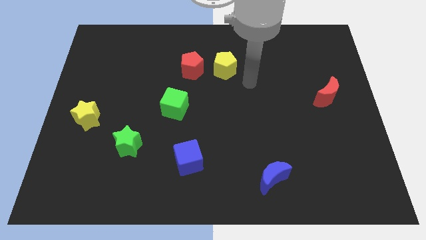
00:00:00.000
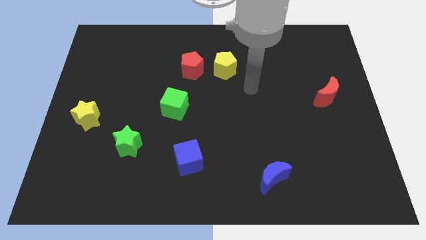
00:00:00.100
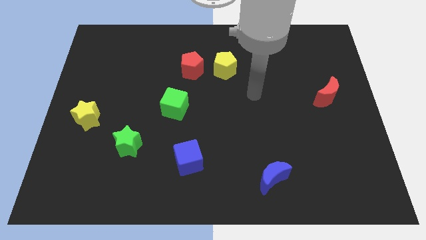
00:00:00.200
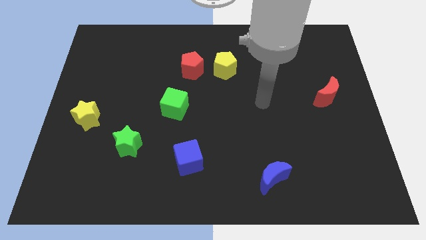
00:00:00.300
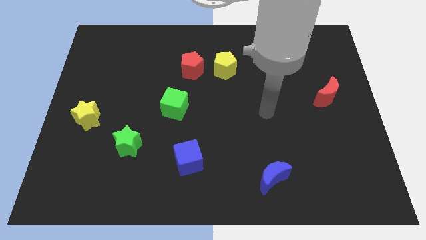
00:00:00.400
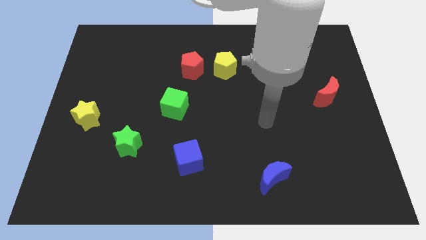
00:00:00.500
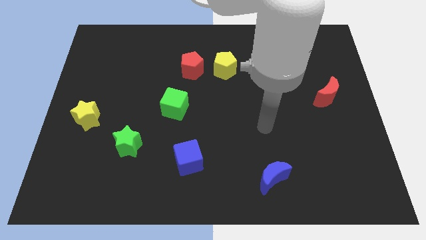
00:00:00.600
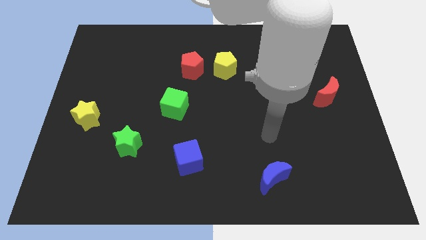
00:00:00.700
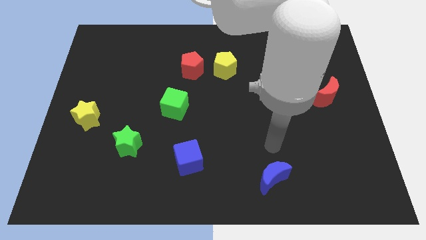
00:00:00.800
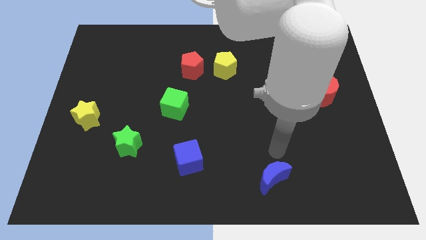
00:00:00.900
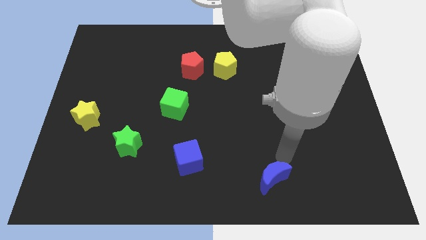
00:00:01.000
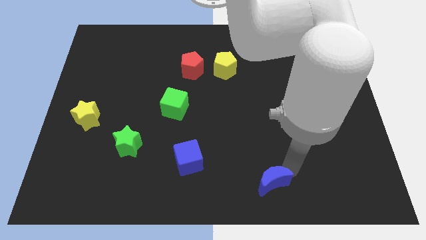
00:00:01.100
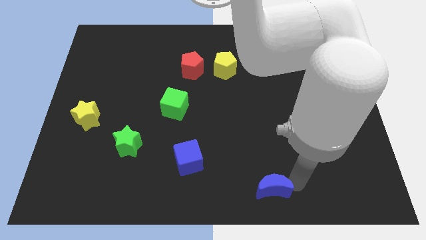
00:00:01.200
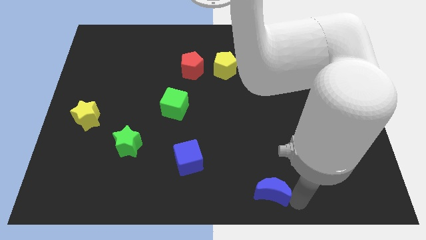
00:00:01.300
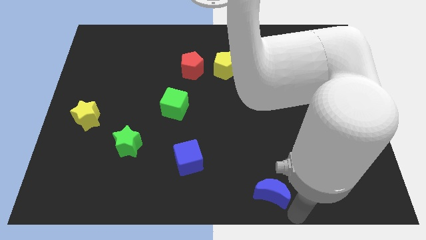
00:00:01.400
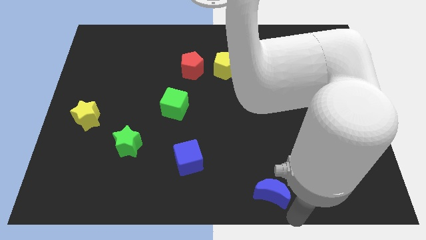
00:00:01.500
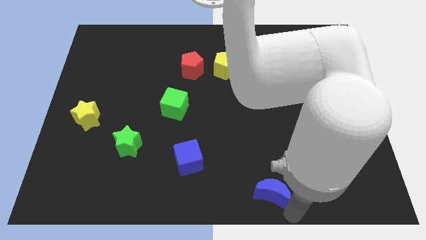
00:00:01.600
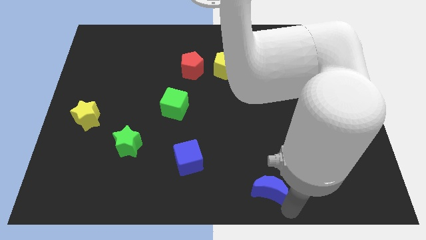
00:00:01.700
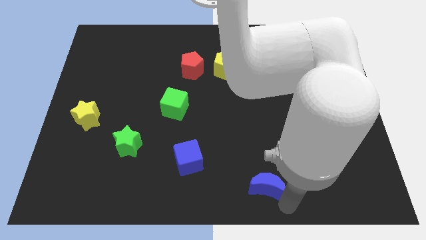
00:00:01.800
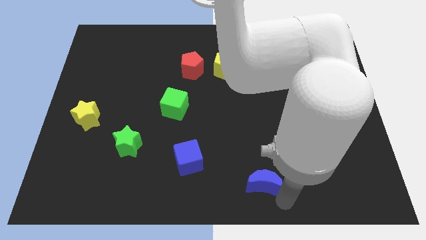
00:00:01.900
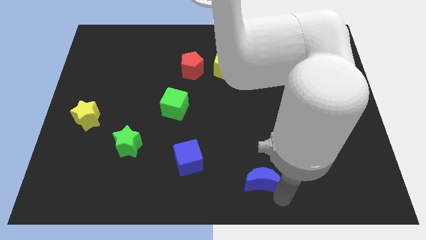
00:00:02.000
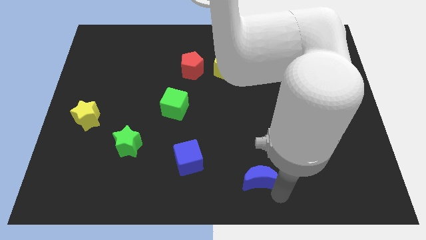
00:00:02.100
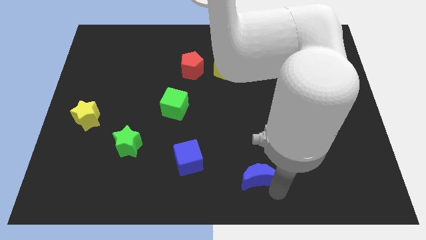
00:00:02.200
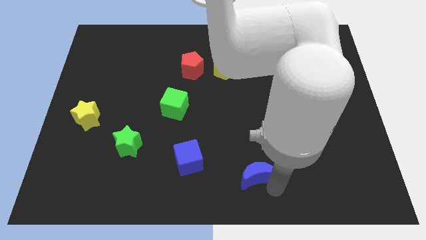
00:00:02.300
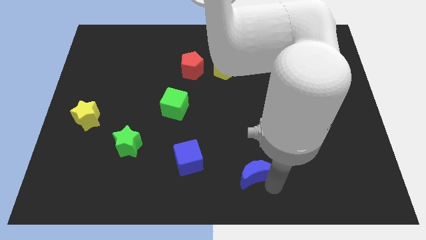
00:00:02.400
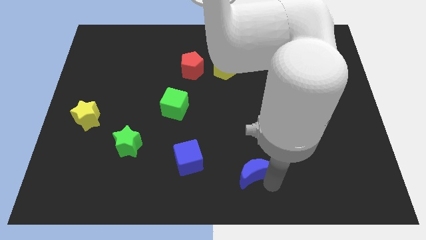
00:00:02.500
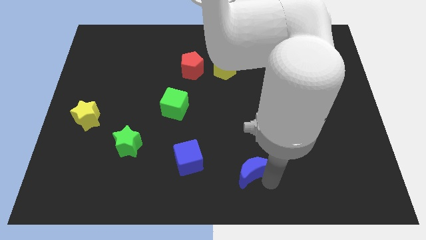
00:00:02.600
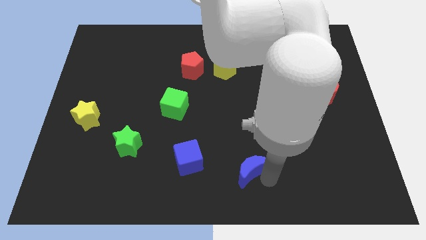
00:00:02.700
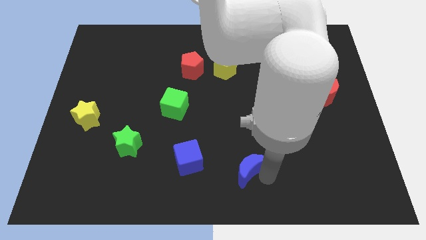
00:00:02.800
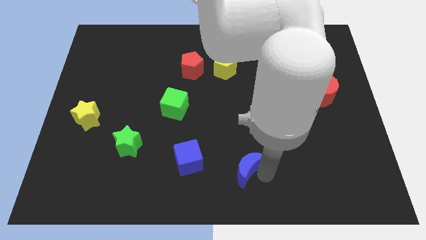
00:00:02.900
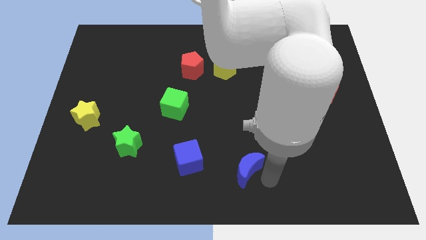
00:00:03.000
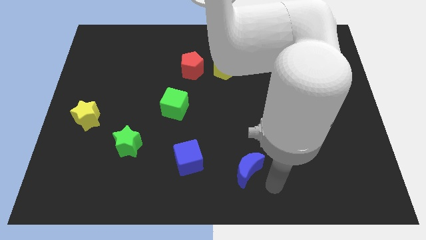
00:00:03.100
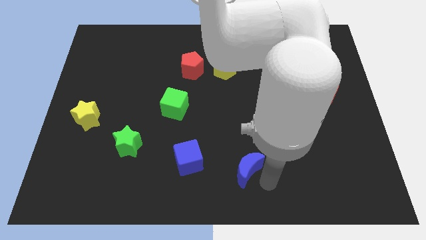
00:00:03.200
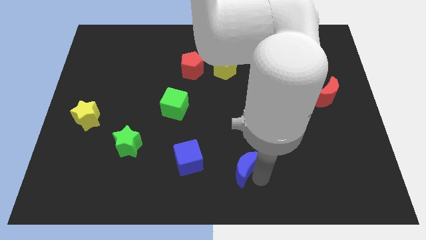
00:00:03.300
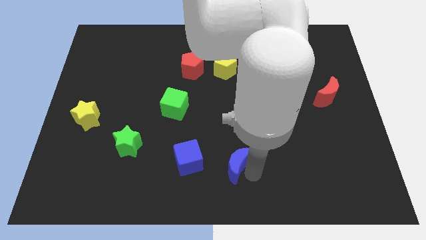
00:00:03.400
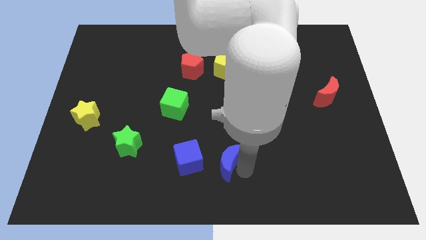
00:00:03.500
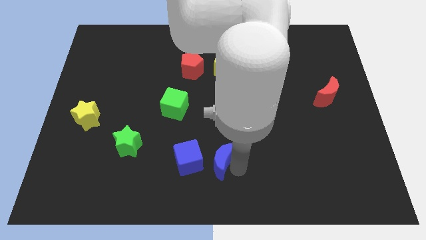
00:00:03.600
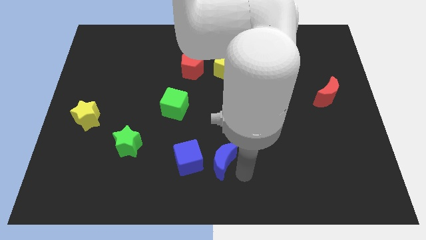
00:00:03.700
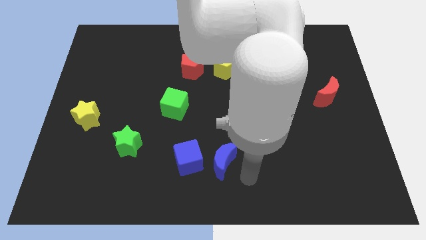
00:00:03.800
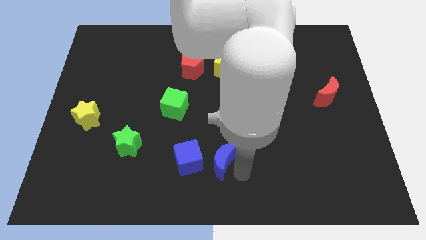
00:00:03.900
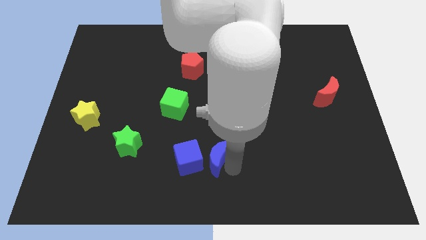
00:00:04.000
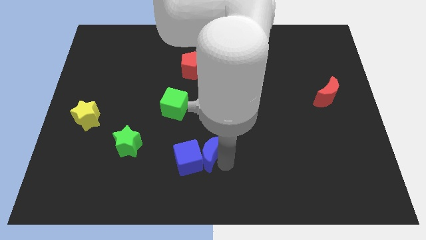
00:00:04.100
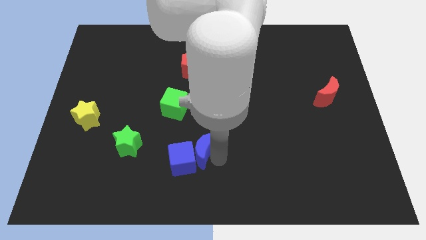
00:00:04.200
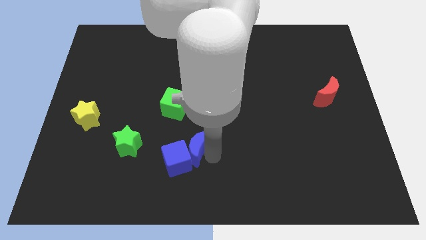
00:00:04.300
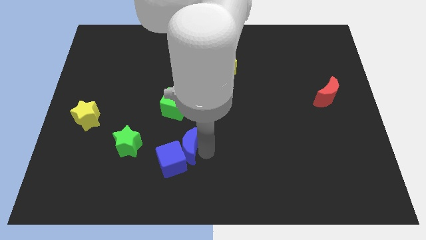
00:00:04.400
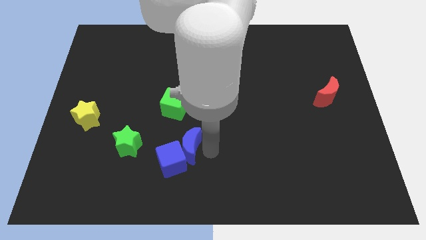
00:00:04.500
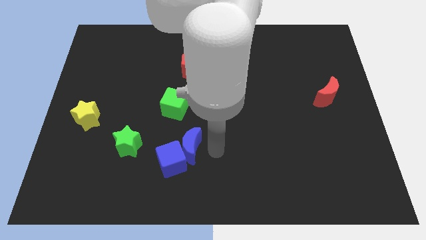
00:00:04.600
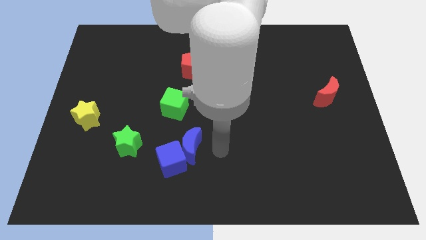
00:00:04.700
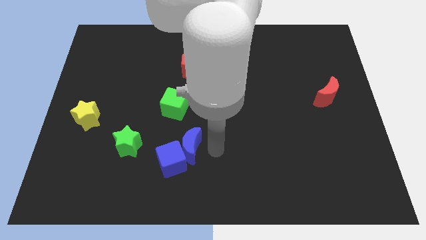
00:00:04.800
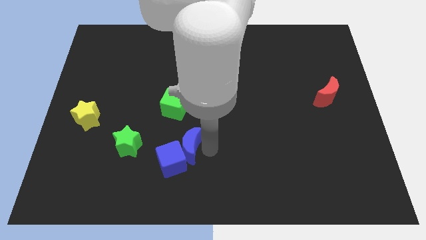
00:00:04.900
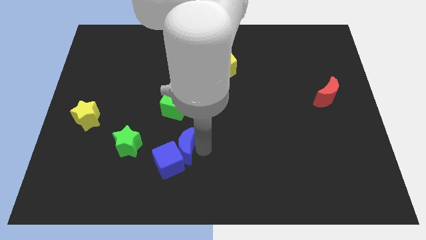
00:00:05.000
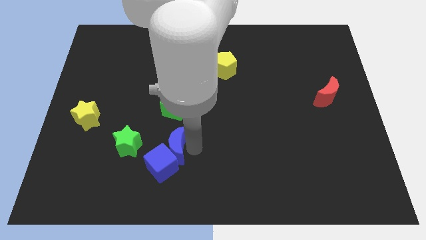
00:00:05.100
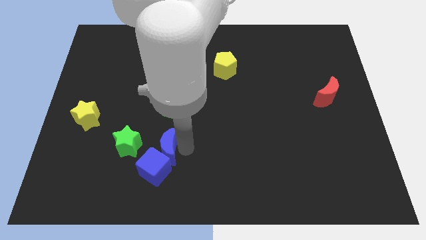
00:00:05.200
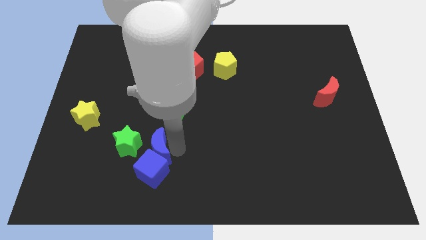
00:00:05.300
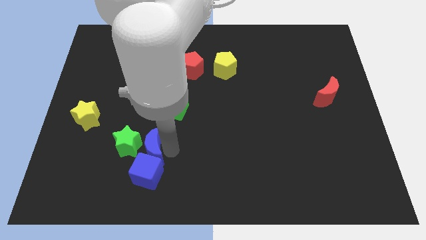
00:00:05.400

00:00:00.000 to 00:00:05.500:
move the blue moon close to the green star

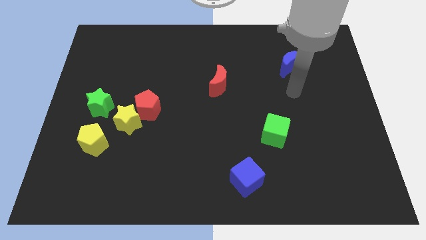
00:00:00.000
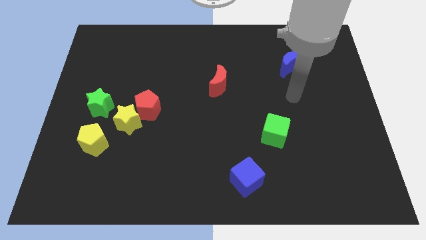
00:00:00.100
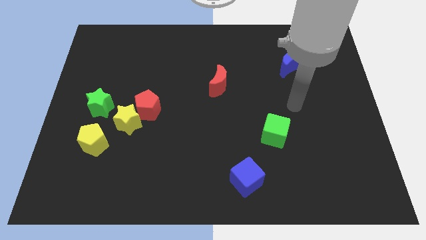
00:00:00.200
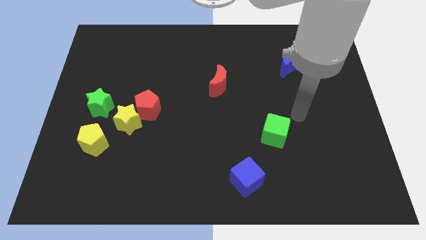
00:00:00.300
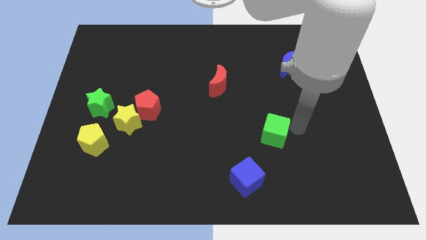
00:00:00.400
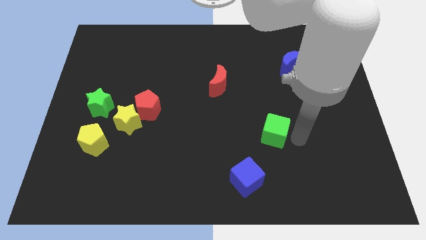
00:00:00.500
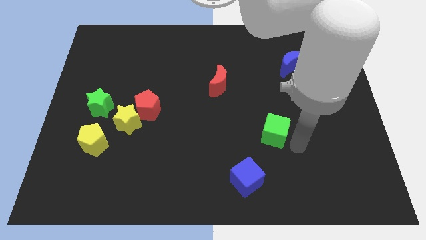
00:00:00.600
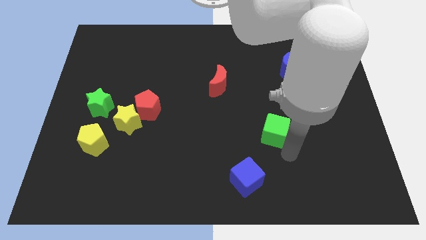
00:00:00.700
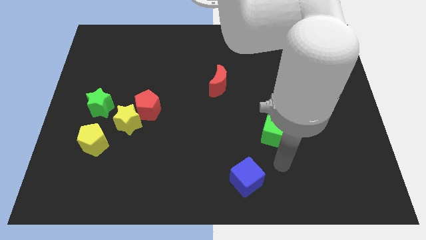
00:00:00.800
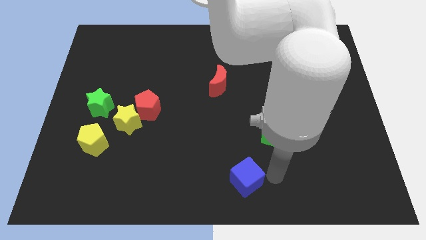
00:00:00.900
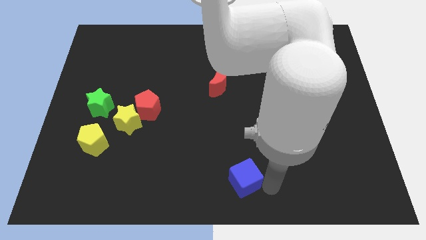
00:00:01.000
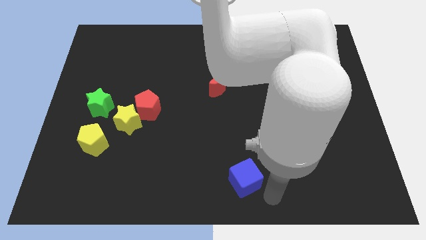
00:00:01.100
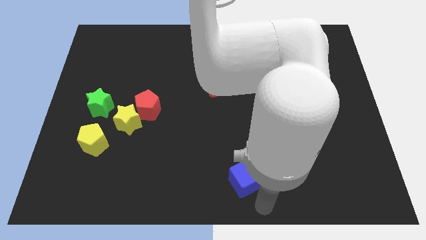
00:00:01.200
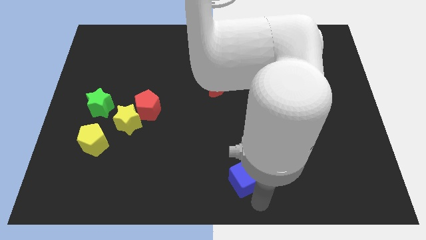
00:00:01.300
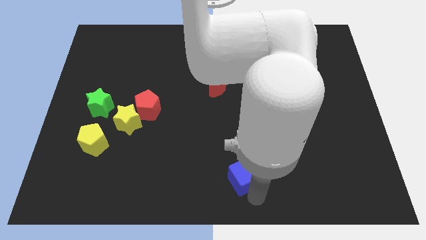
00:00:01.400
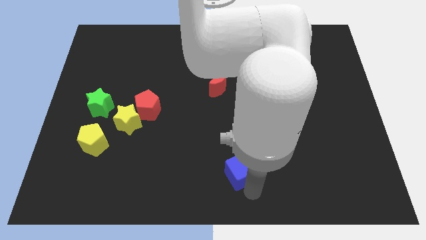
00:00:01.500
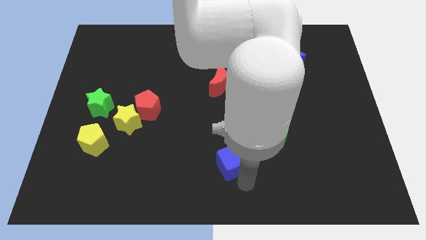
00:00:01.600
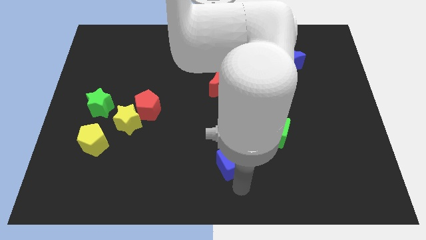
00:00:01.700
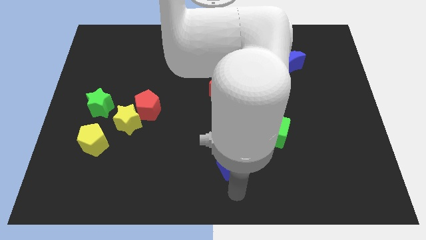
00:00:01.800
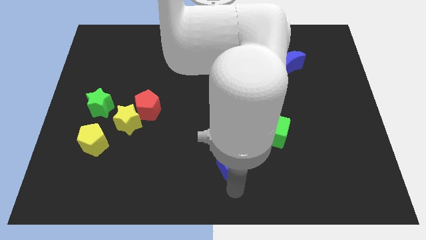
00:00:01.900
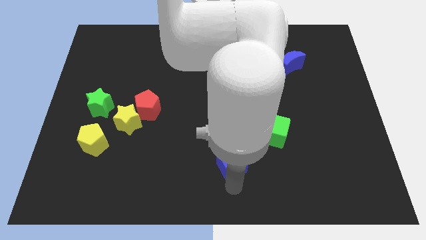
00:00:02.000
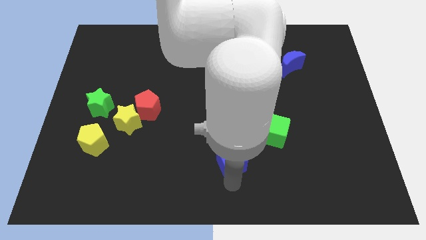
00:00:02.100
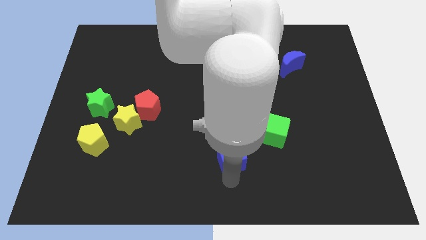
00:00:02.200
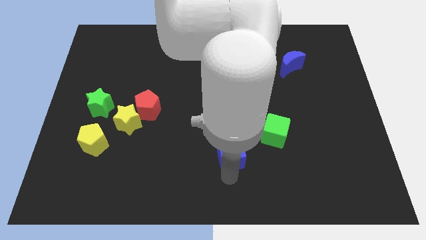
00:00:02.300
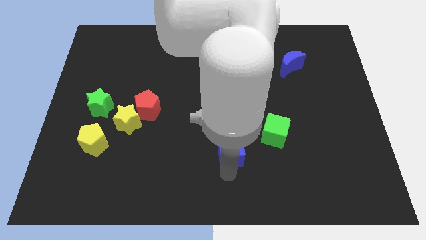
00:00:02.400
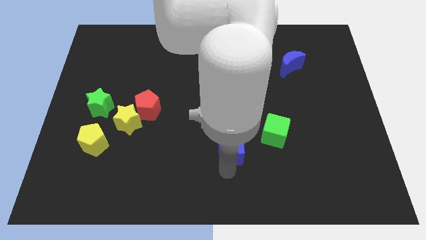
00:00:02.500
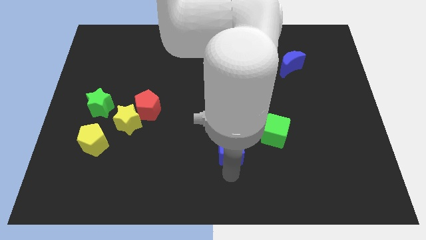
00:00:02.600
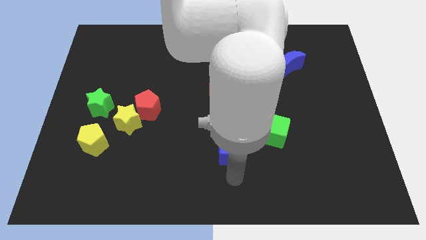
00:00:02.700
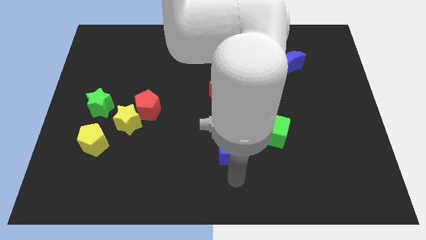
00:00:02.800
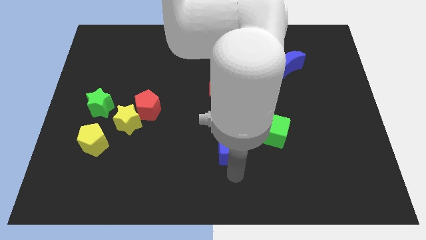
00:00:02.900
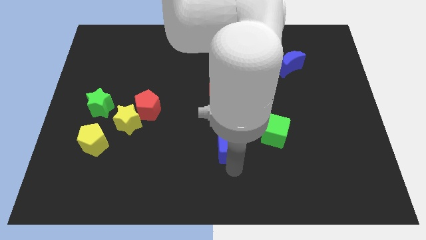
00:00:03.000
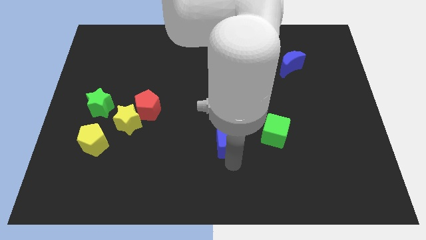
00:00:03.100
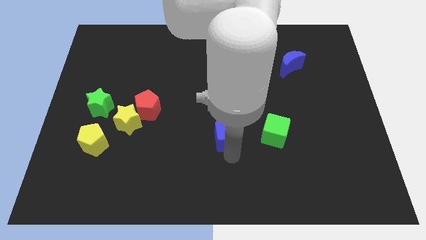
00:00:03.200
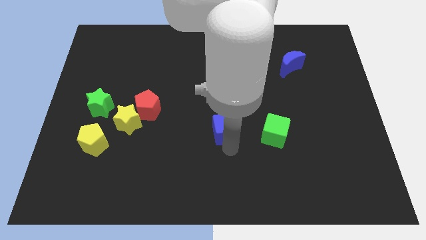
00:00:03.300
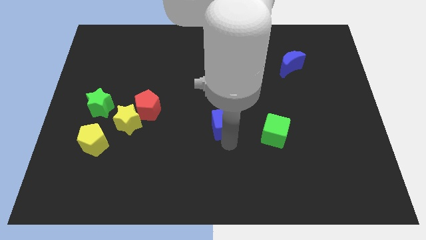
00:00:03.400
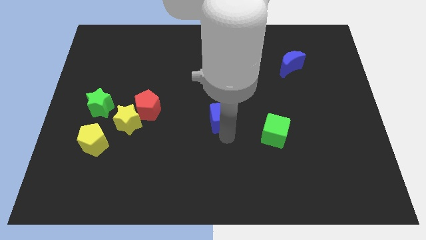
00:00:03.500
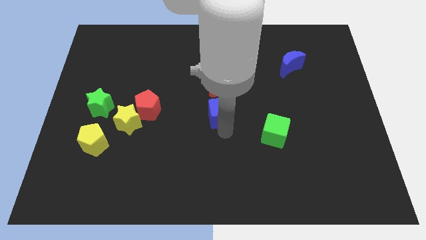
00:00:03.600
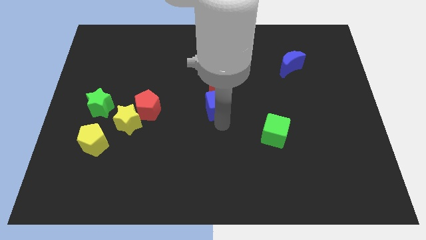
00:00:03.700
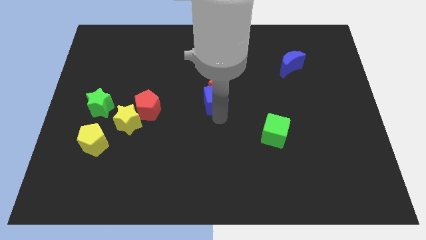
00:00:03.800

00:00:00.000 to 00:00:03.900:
move the blue cube next to the red moon
